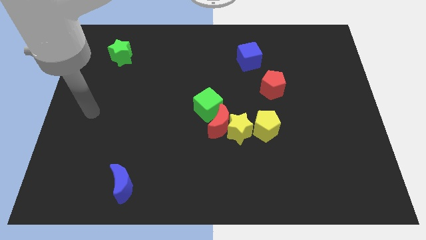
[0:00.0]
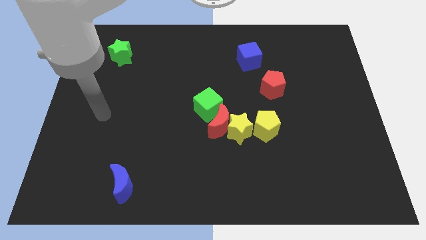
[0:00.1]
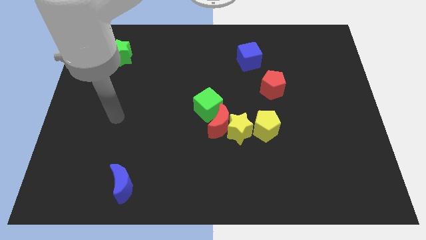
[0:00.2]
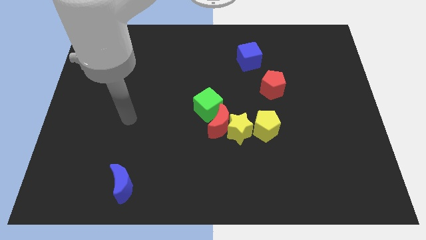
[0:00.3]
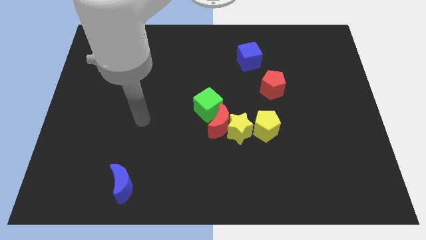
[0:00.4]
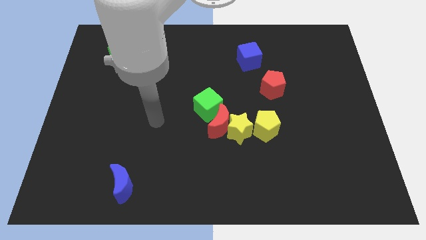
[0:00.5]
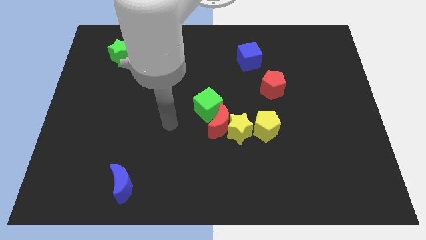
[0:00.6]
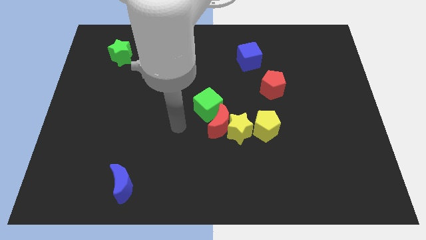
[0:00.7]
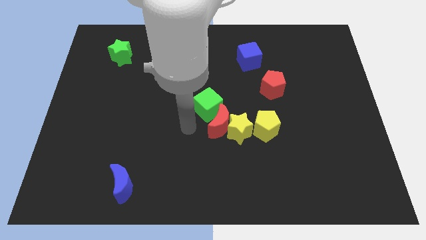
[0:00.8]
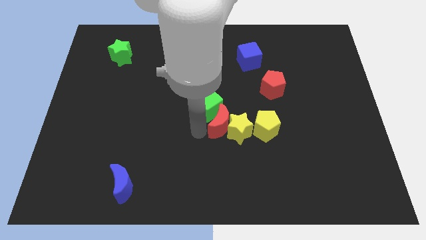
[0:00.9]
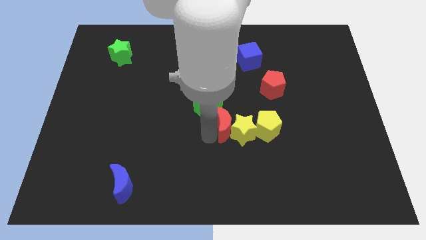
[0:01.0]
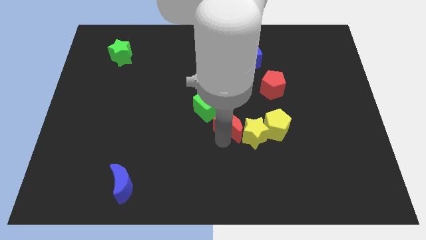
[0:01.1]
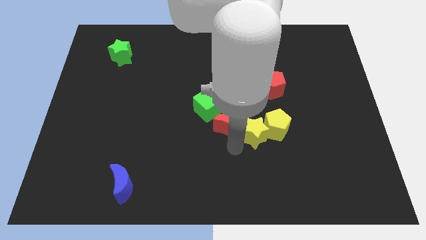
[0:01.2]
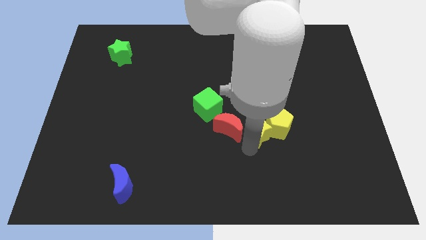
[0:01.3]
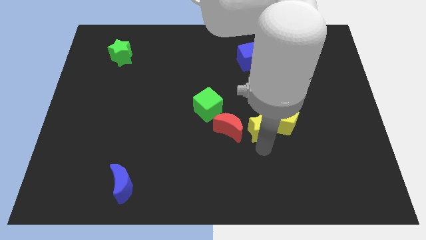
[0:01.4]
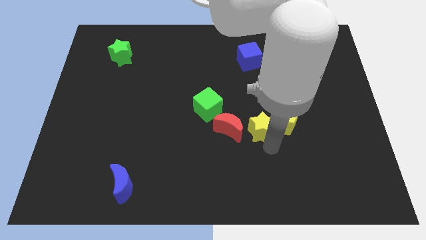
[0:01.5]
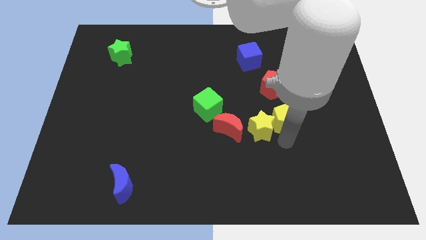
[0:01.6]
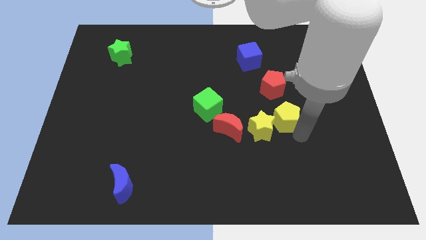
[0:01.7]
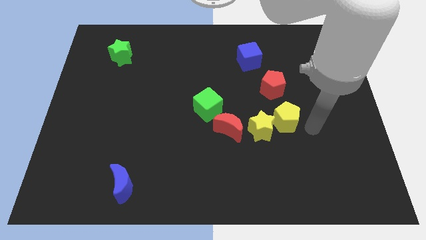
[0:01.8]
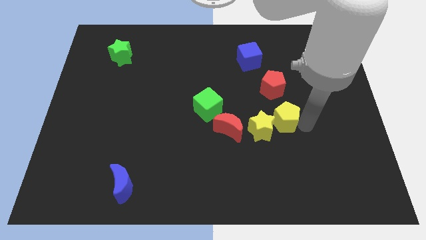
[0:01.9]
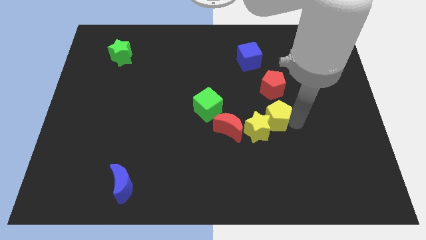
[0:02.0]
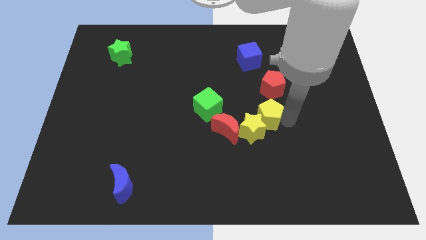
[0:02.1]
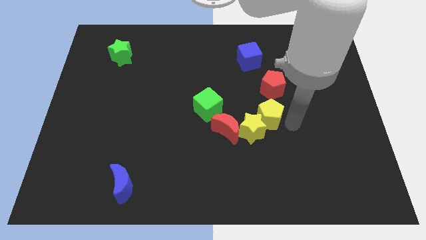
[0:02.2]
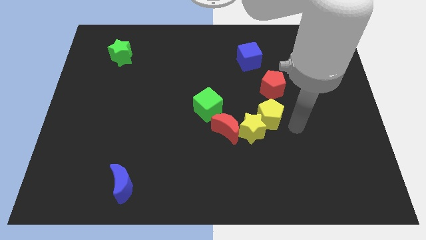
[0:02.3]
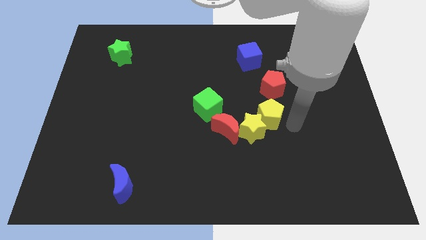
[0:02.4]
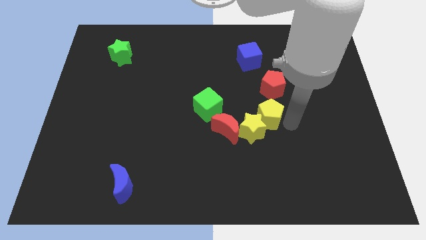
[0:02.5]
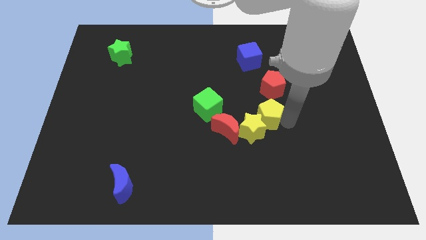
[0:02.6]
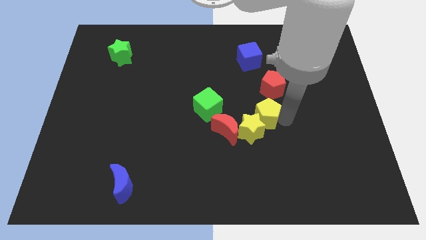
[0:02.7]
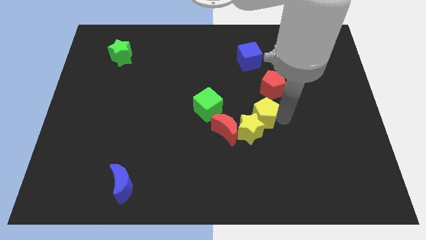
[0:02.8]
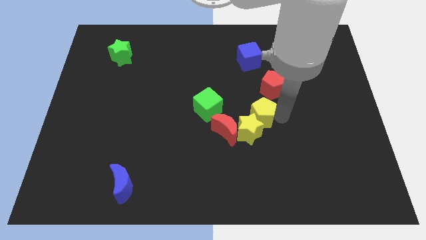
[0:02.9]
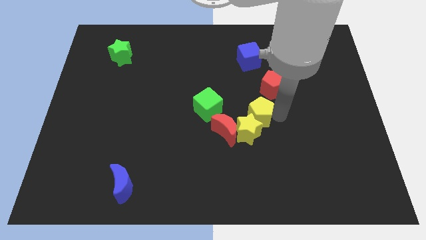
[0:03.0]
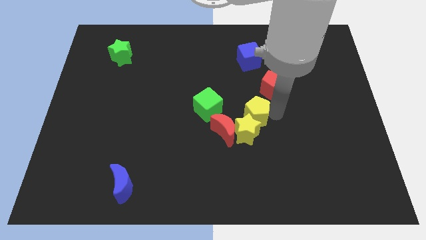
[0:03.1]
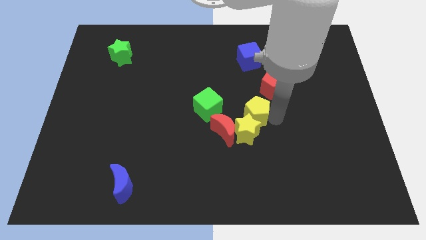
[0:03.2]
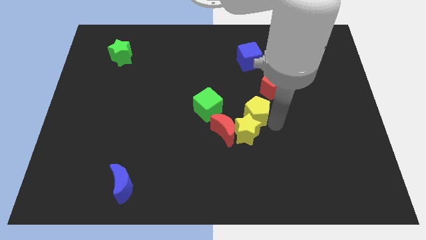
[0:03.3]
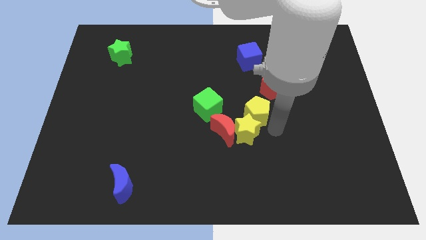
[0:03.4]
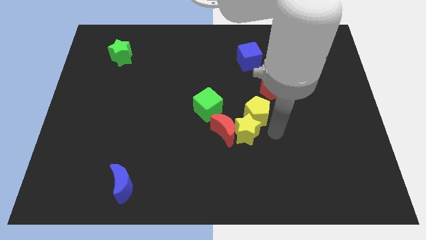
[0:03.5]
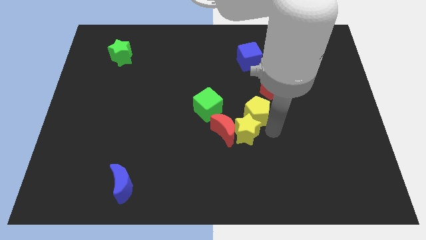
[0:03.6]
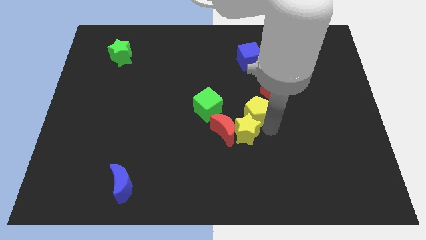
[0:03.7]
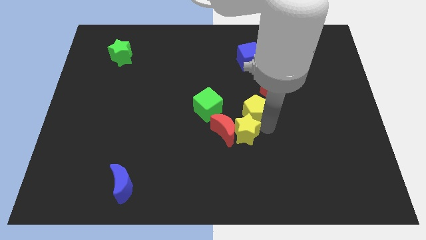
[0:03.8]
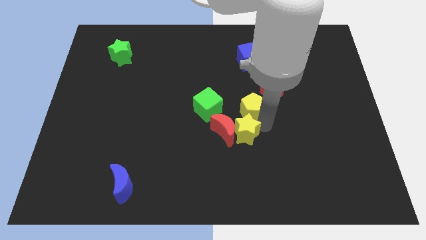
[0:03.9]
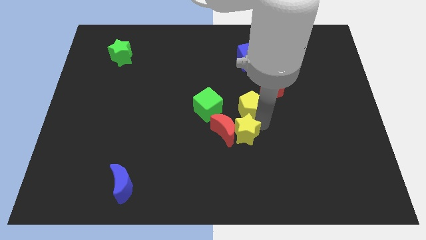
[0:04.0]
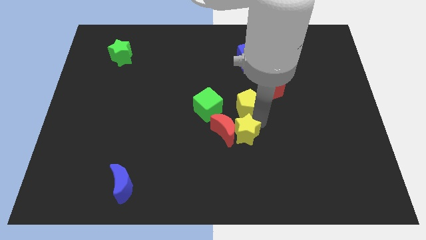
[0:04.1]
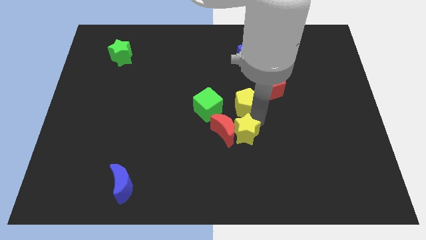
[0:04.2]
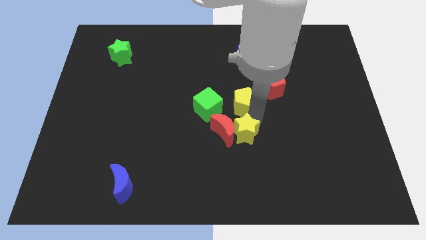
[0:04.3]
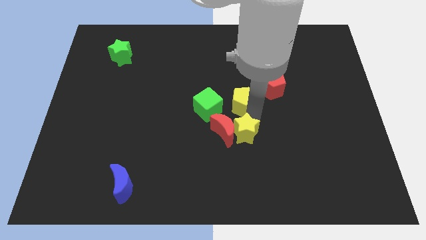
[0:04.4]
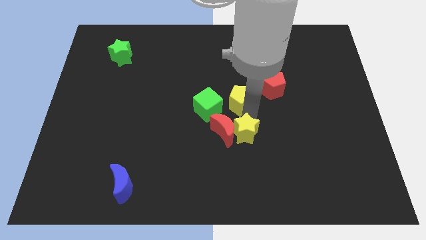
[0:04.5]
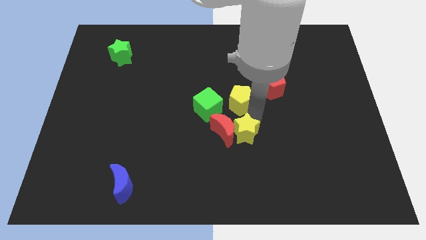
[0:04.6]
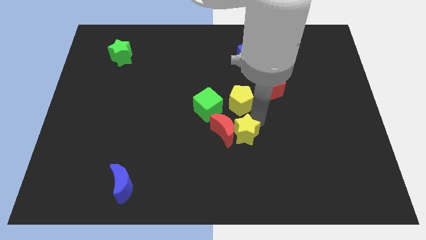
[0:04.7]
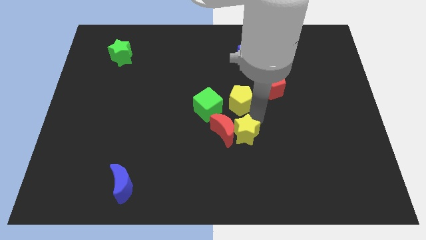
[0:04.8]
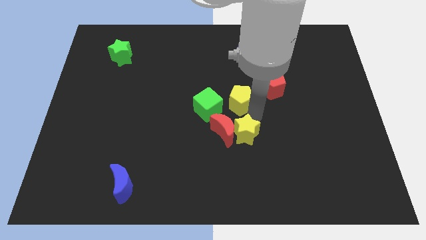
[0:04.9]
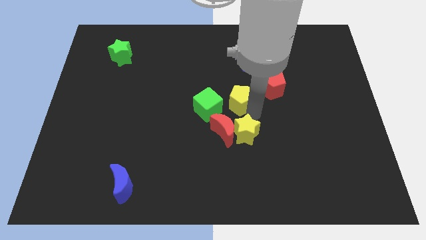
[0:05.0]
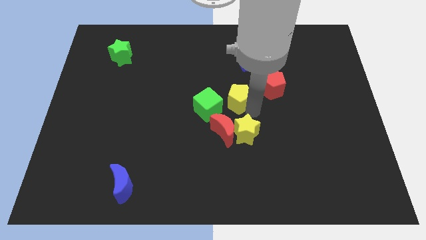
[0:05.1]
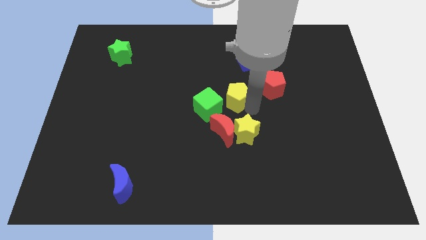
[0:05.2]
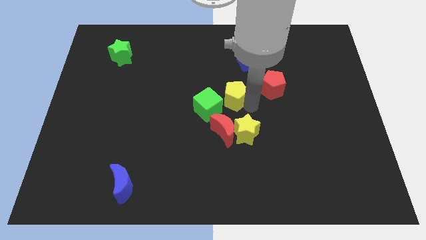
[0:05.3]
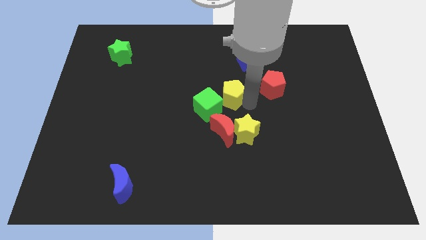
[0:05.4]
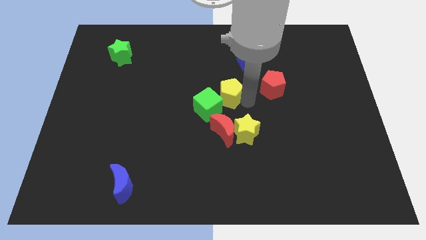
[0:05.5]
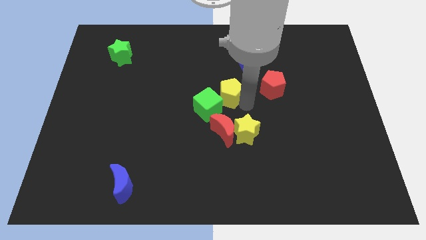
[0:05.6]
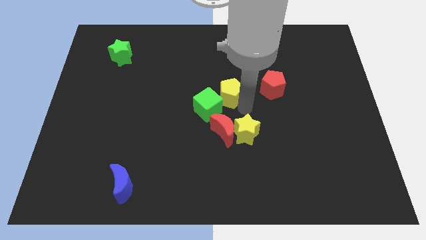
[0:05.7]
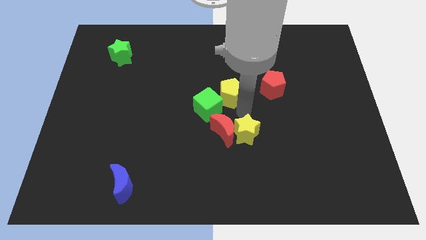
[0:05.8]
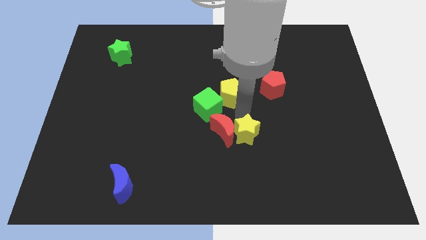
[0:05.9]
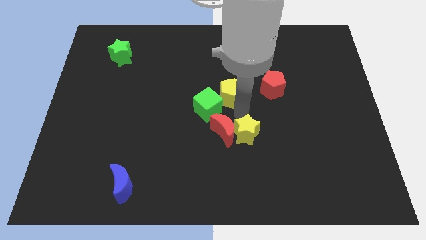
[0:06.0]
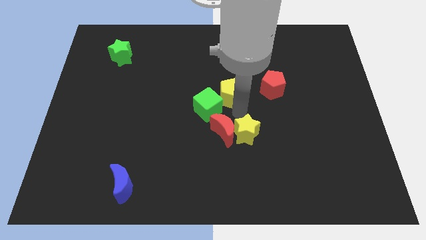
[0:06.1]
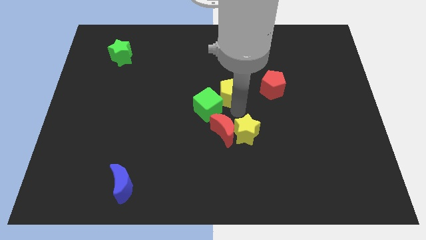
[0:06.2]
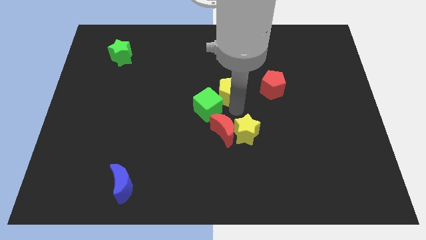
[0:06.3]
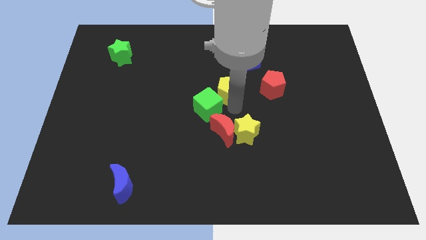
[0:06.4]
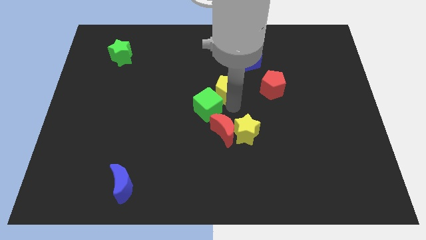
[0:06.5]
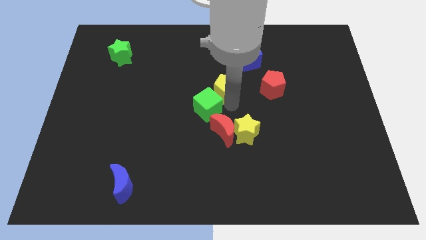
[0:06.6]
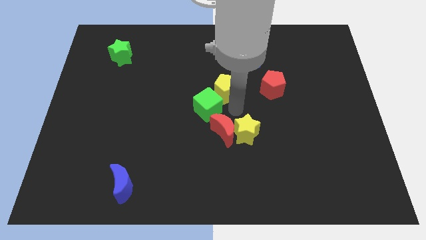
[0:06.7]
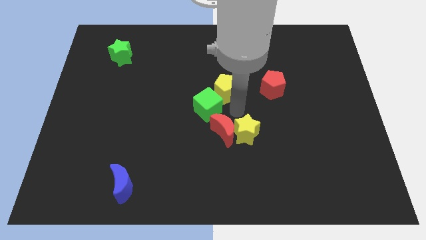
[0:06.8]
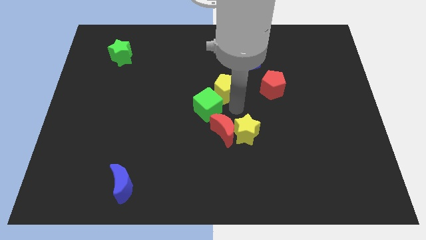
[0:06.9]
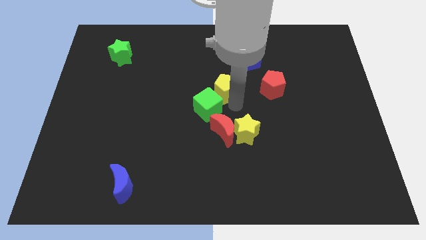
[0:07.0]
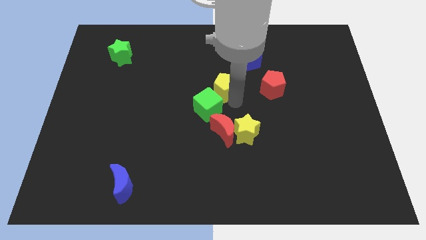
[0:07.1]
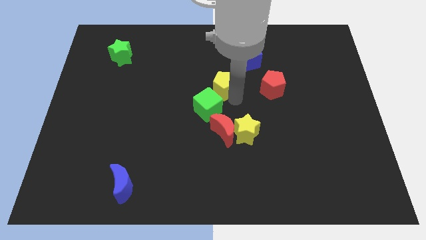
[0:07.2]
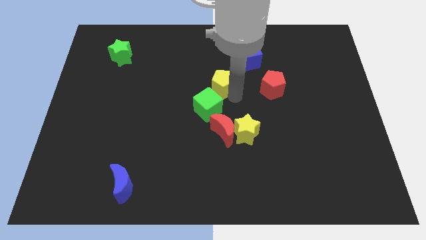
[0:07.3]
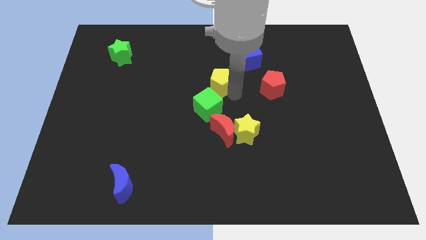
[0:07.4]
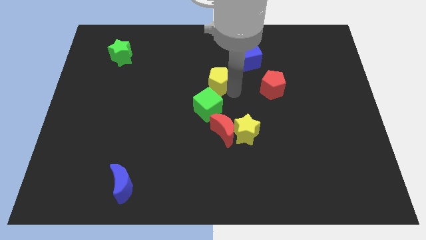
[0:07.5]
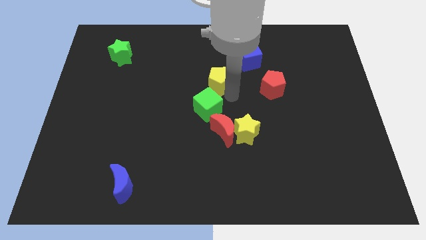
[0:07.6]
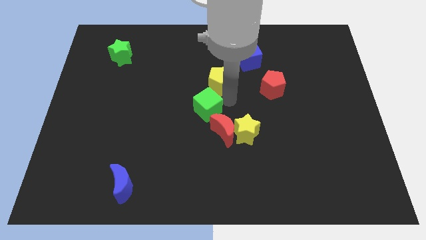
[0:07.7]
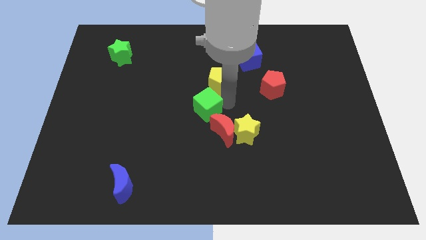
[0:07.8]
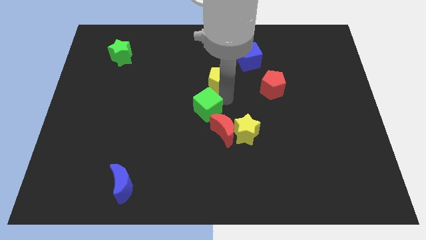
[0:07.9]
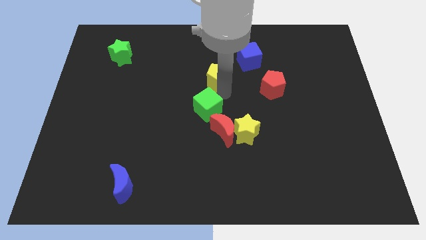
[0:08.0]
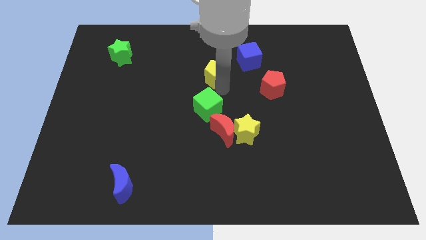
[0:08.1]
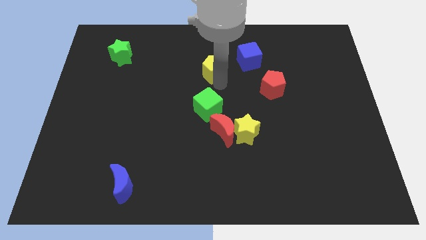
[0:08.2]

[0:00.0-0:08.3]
slide the yellow pentagon to the left of the blue cube
